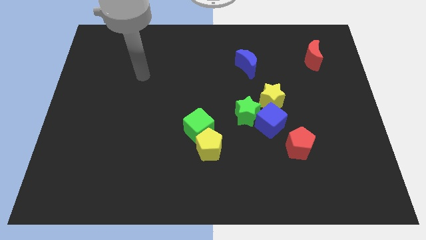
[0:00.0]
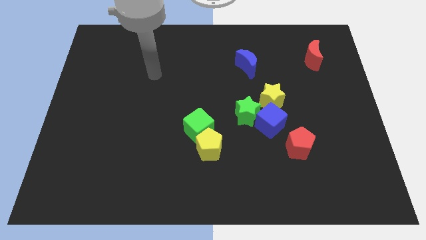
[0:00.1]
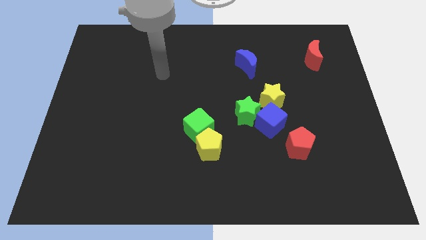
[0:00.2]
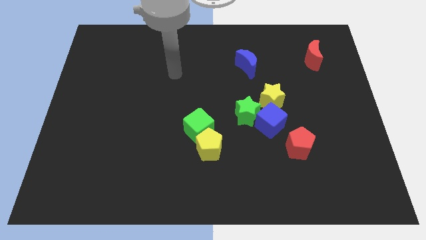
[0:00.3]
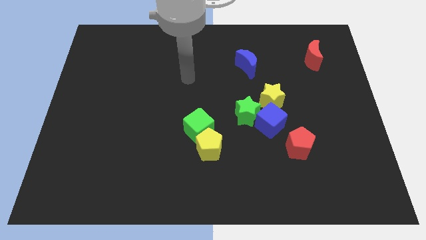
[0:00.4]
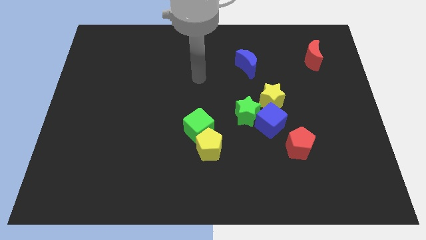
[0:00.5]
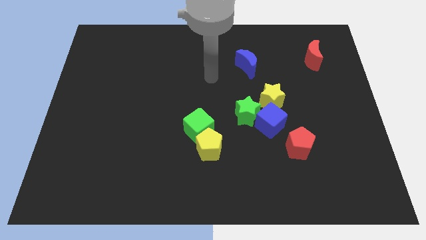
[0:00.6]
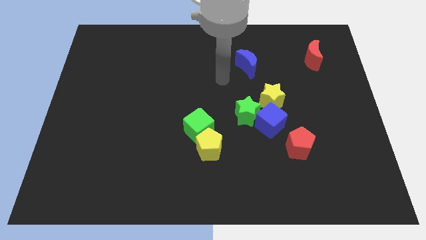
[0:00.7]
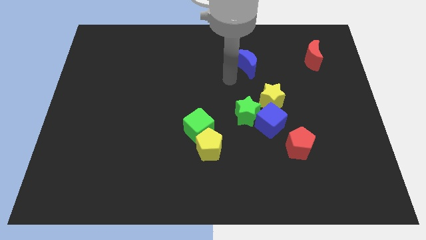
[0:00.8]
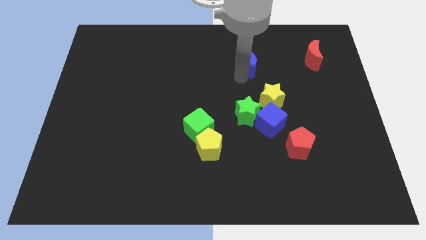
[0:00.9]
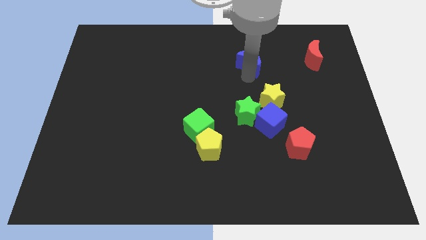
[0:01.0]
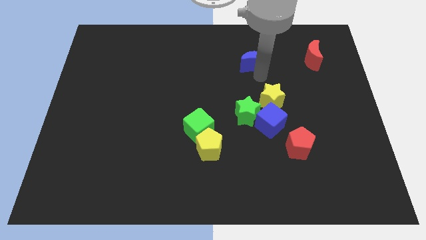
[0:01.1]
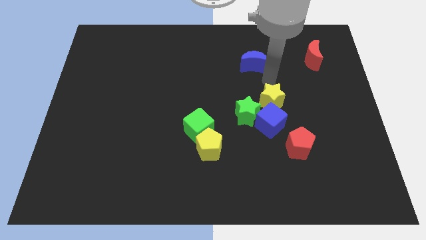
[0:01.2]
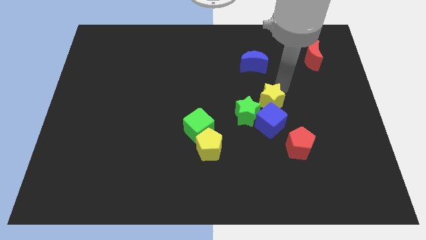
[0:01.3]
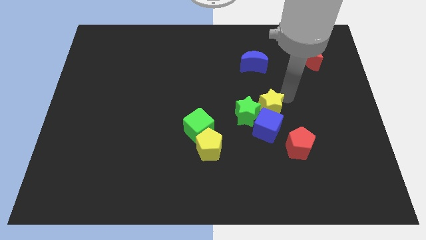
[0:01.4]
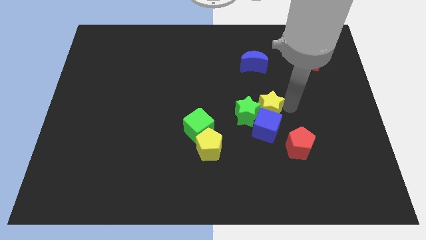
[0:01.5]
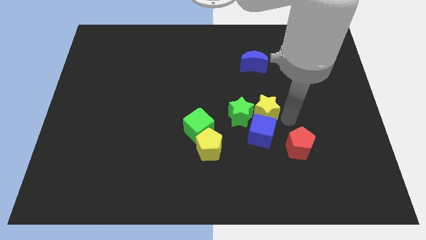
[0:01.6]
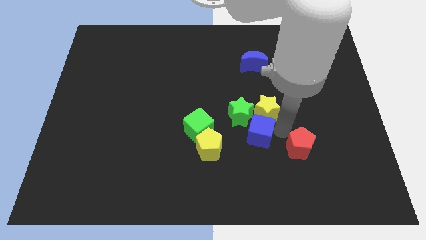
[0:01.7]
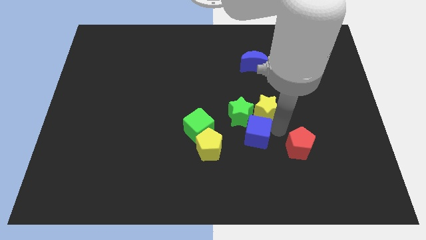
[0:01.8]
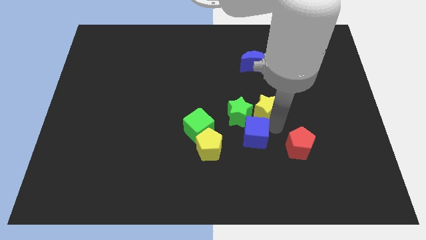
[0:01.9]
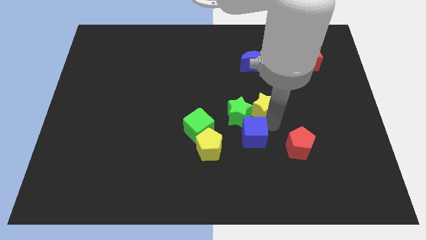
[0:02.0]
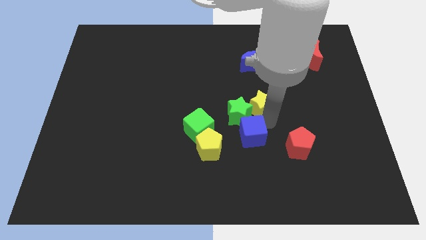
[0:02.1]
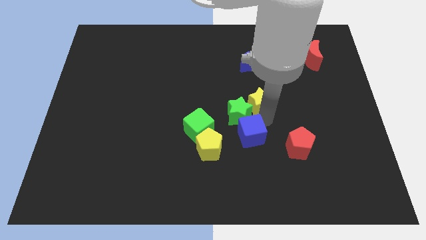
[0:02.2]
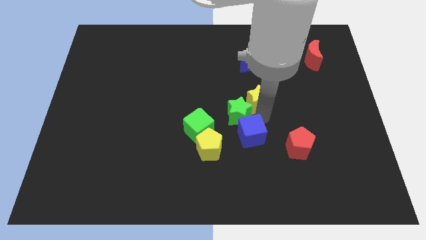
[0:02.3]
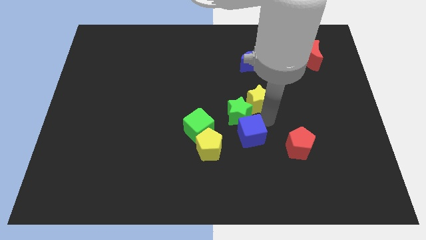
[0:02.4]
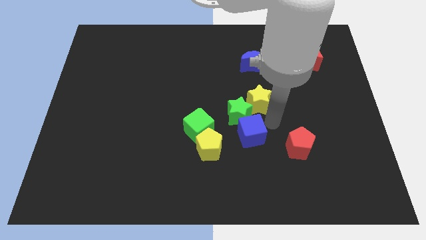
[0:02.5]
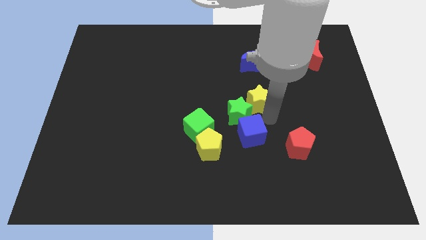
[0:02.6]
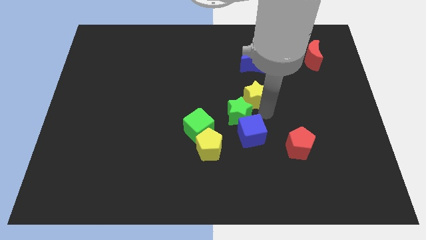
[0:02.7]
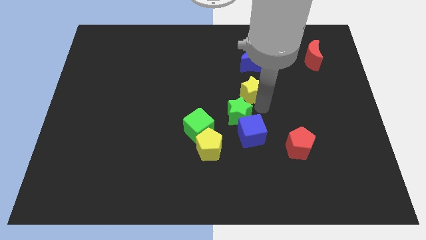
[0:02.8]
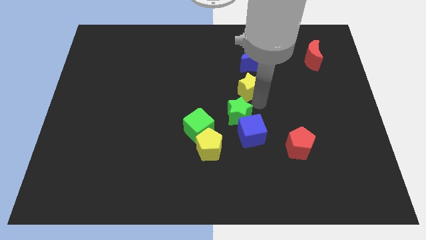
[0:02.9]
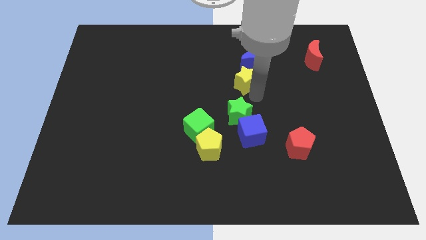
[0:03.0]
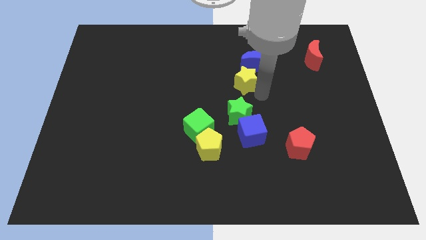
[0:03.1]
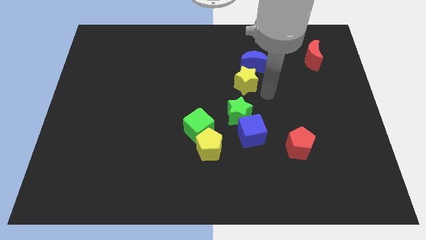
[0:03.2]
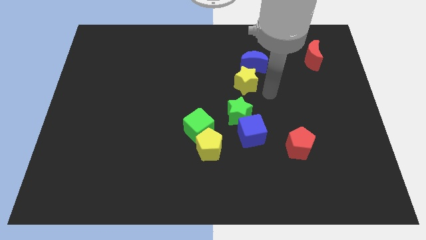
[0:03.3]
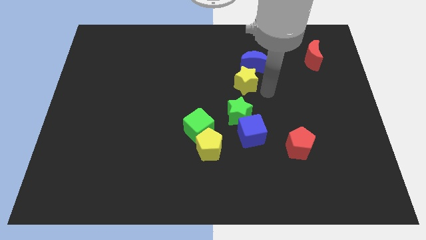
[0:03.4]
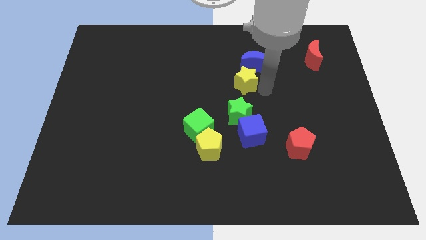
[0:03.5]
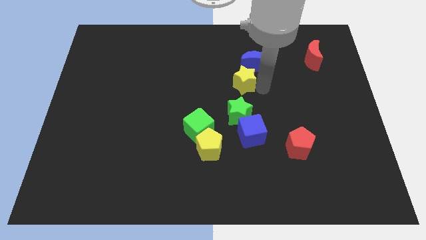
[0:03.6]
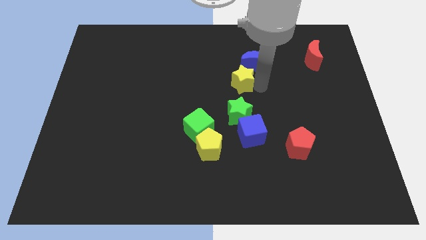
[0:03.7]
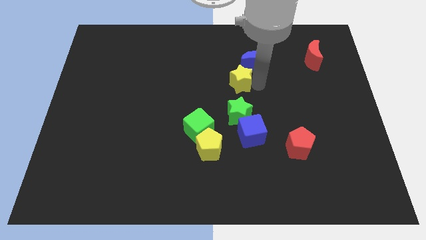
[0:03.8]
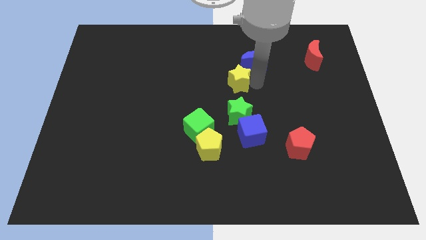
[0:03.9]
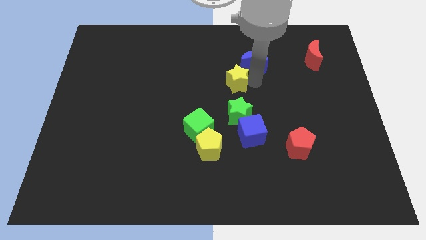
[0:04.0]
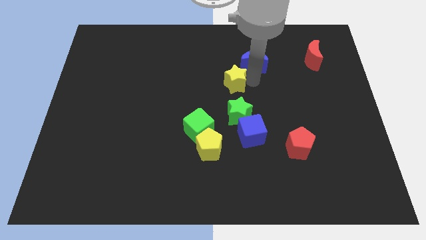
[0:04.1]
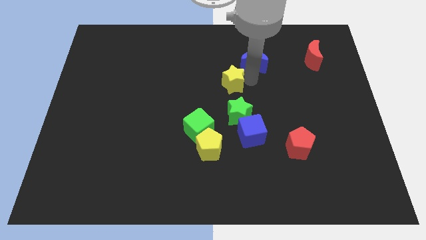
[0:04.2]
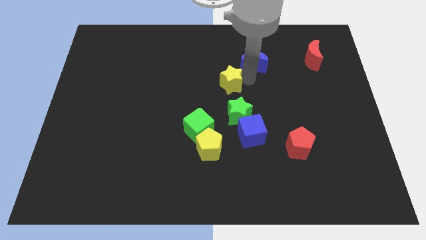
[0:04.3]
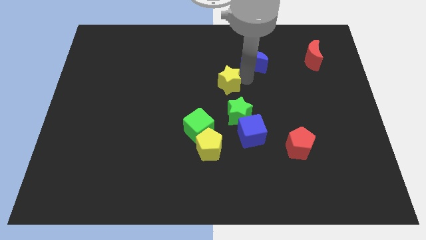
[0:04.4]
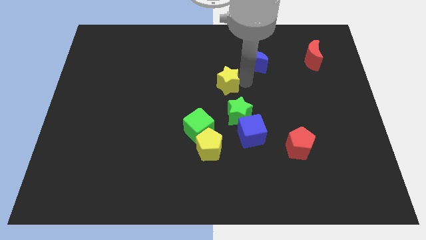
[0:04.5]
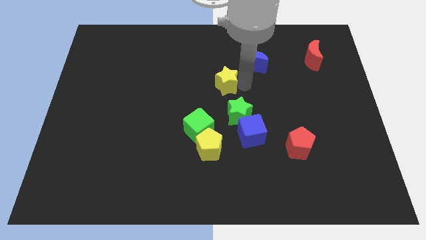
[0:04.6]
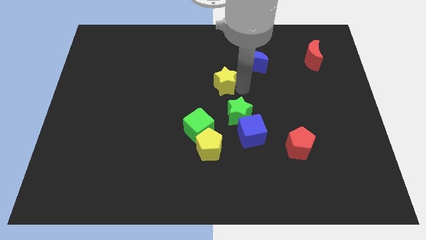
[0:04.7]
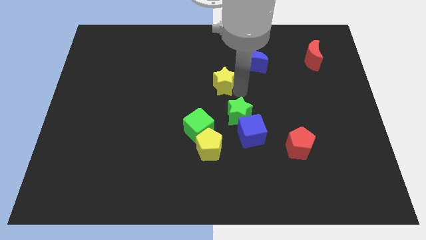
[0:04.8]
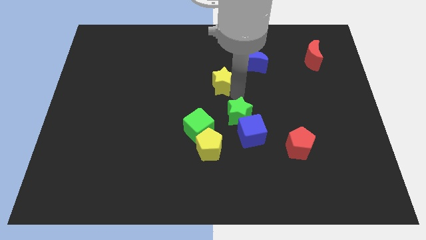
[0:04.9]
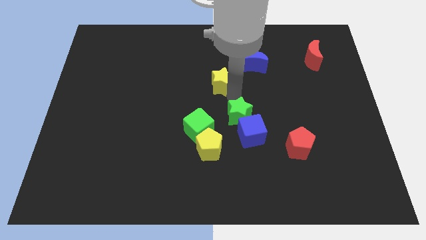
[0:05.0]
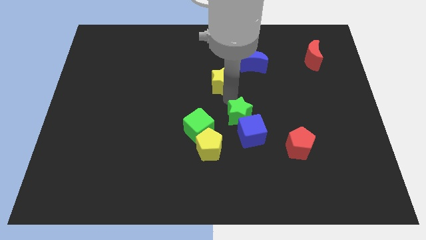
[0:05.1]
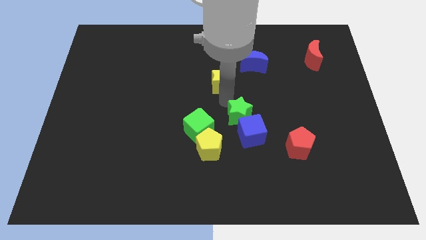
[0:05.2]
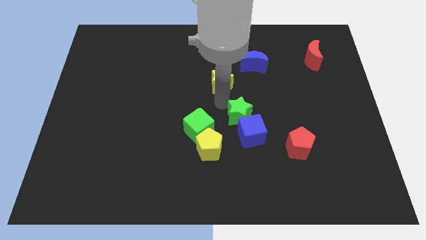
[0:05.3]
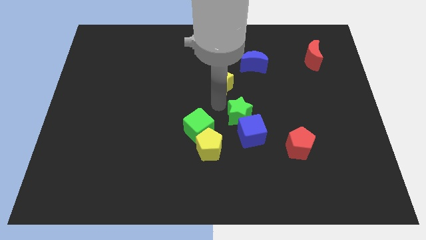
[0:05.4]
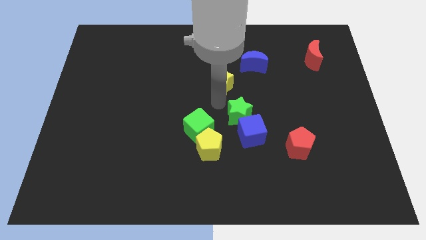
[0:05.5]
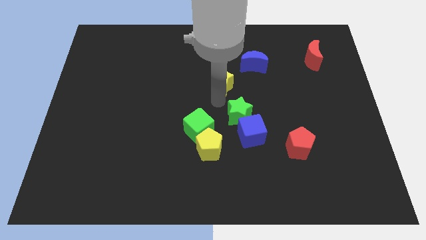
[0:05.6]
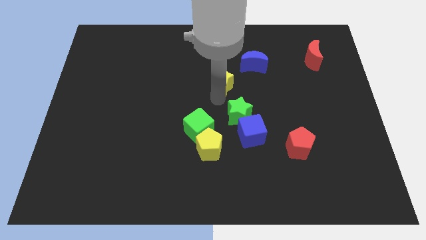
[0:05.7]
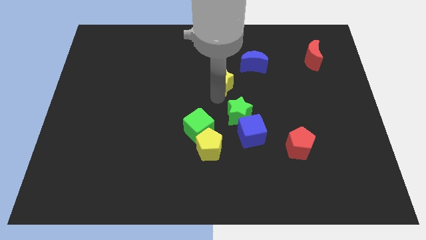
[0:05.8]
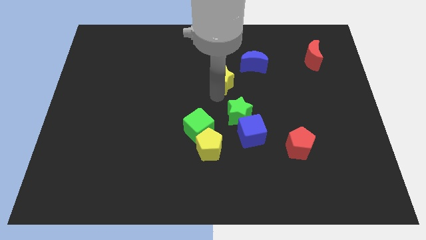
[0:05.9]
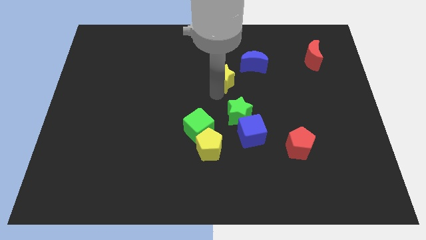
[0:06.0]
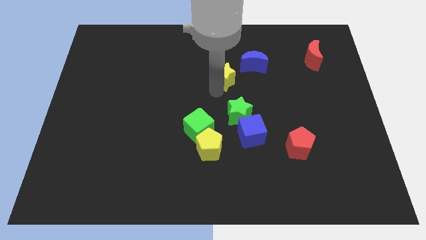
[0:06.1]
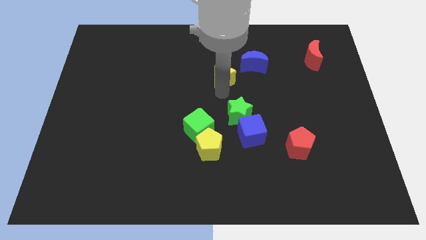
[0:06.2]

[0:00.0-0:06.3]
put the yellow star left of the blue moon
